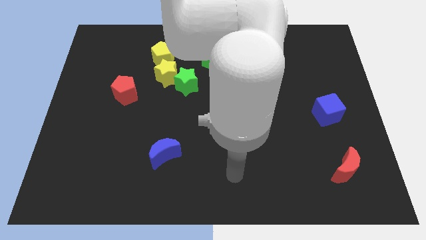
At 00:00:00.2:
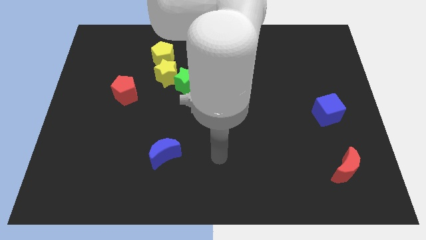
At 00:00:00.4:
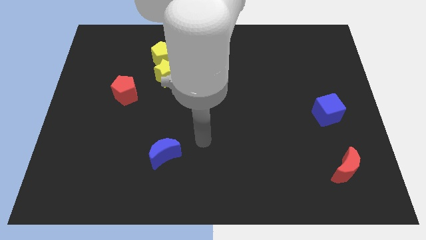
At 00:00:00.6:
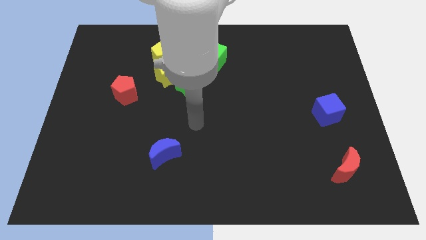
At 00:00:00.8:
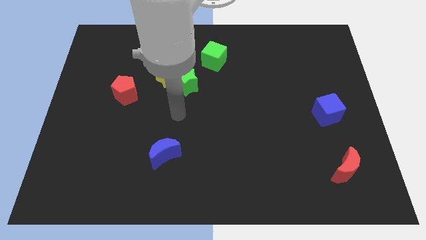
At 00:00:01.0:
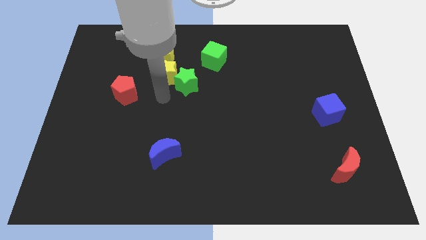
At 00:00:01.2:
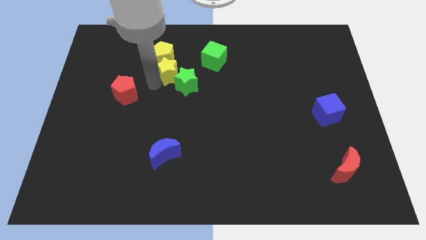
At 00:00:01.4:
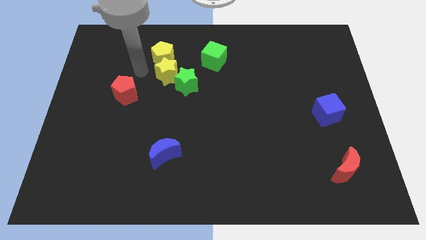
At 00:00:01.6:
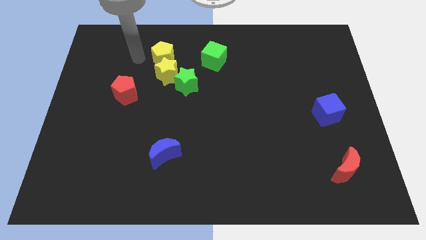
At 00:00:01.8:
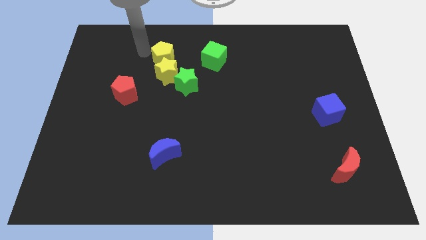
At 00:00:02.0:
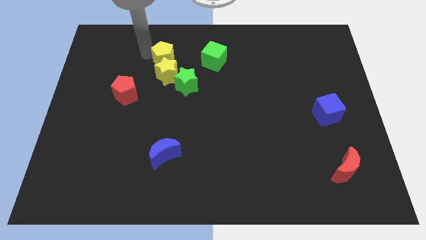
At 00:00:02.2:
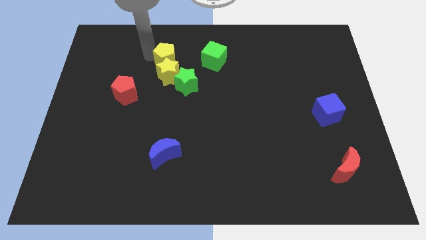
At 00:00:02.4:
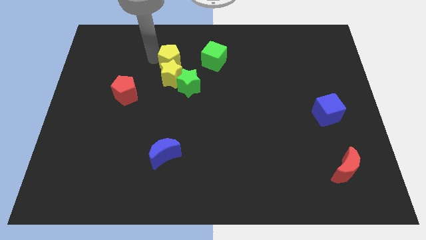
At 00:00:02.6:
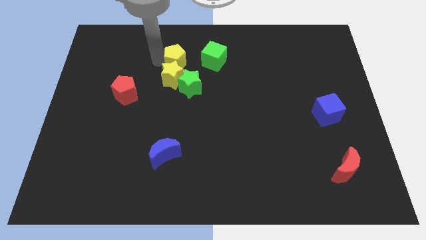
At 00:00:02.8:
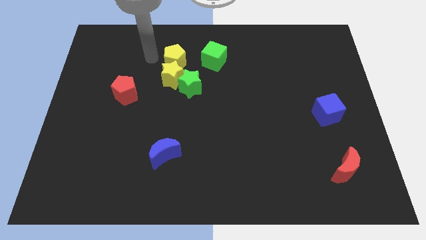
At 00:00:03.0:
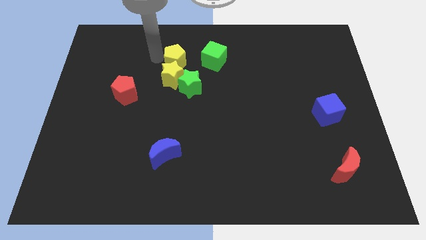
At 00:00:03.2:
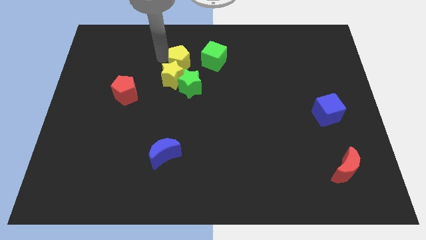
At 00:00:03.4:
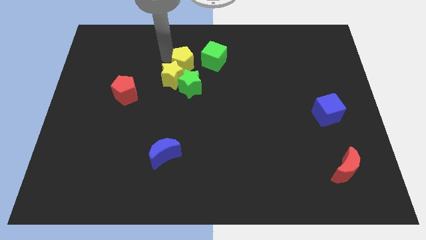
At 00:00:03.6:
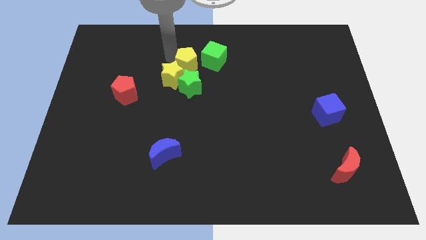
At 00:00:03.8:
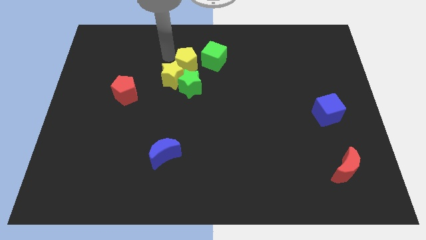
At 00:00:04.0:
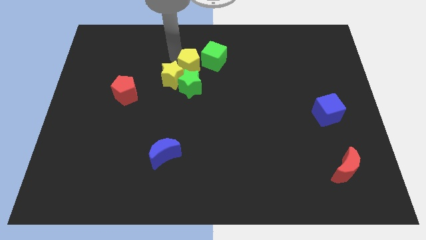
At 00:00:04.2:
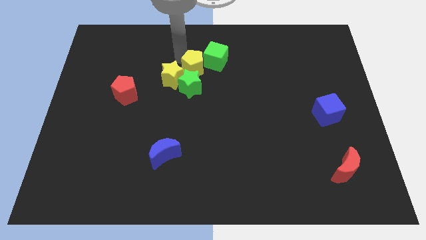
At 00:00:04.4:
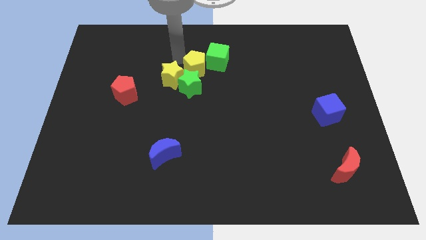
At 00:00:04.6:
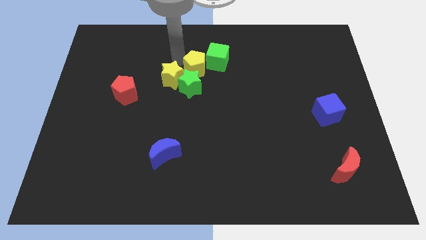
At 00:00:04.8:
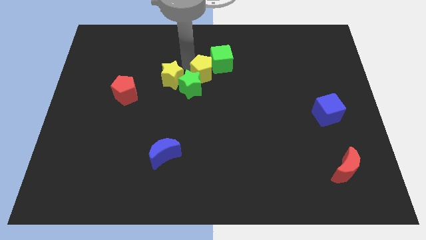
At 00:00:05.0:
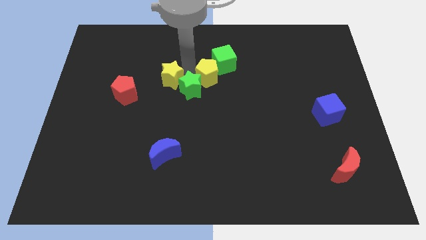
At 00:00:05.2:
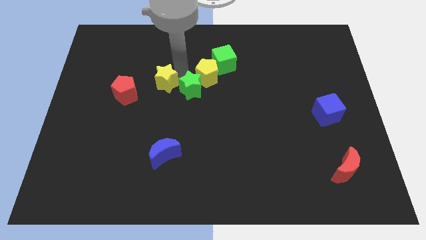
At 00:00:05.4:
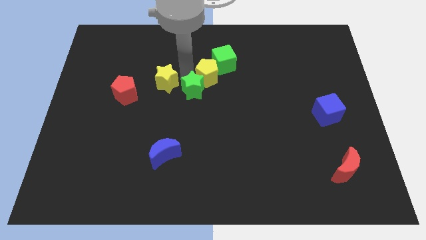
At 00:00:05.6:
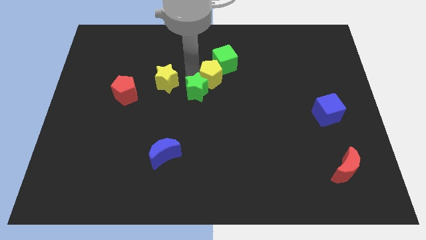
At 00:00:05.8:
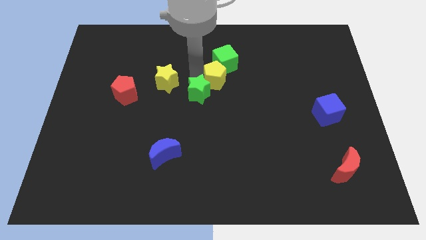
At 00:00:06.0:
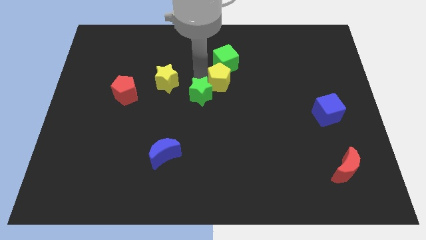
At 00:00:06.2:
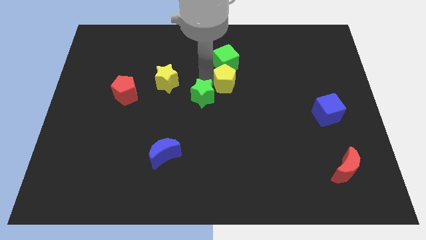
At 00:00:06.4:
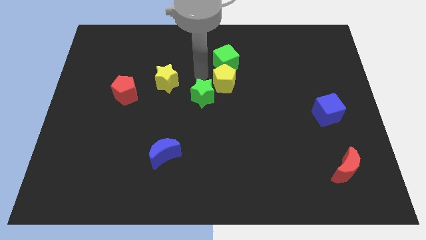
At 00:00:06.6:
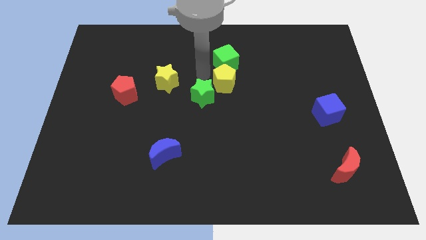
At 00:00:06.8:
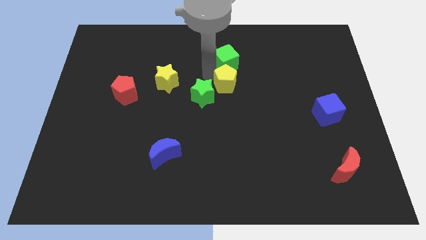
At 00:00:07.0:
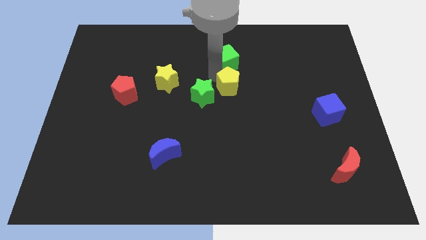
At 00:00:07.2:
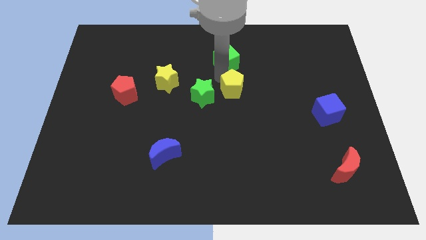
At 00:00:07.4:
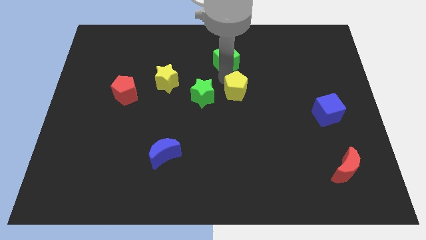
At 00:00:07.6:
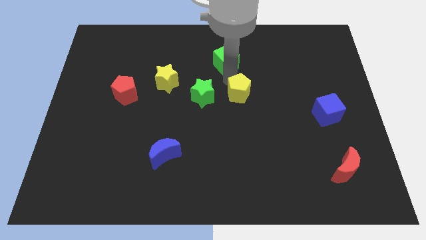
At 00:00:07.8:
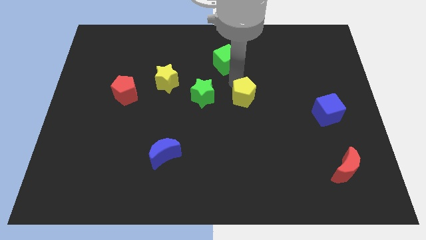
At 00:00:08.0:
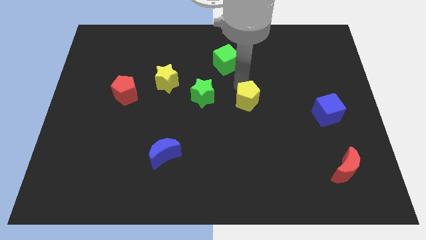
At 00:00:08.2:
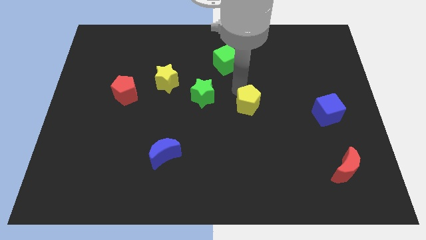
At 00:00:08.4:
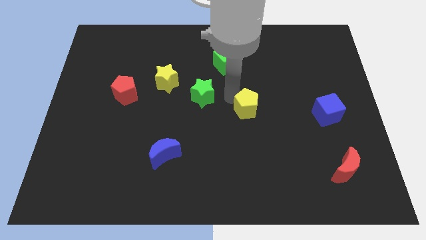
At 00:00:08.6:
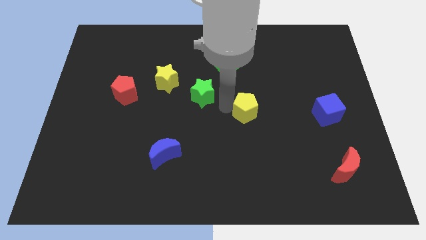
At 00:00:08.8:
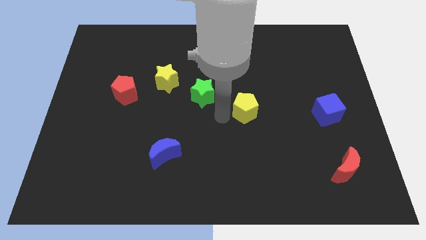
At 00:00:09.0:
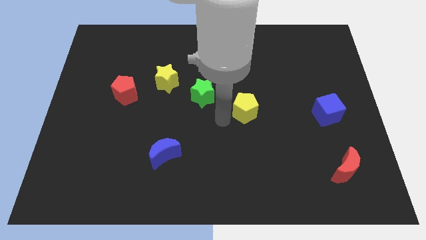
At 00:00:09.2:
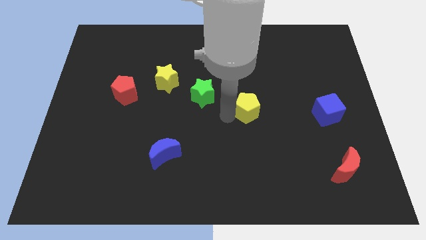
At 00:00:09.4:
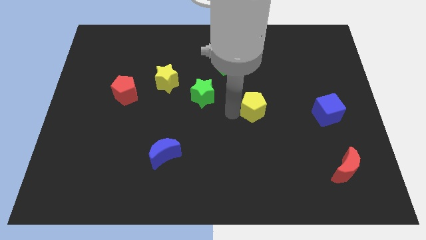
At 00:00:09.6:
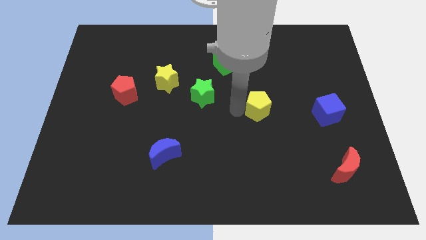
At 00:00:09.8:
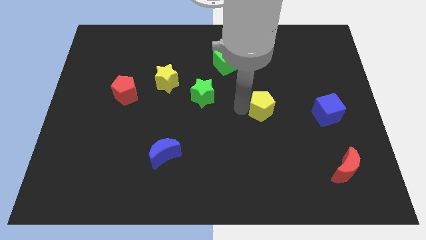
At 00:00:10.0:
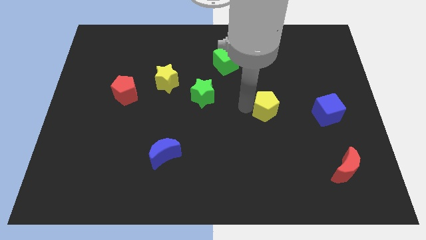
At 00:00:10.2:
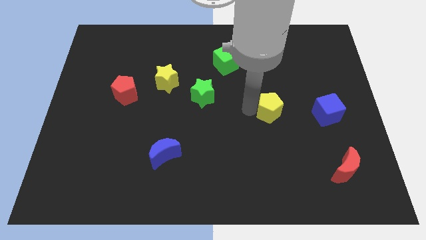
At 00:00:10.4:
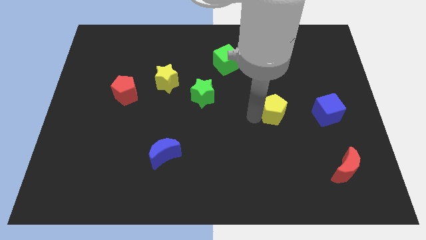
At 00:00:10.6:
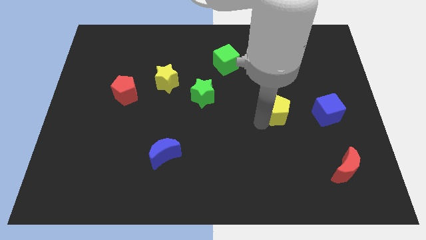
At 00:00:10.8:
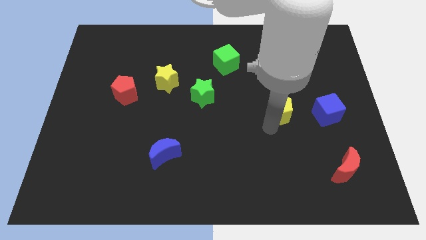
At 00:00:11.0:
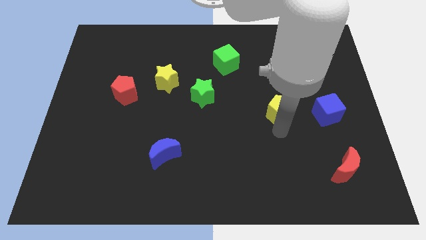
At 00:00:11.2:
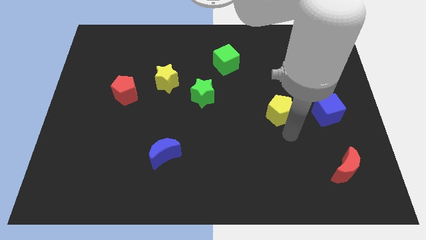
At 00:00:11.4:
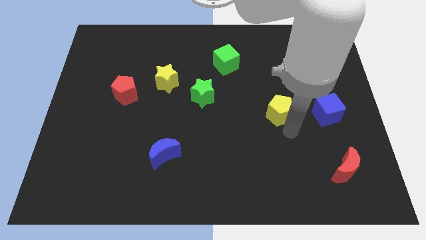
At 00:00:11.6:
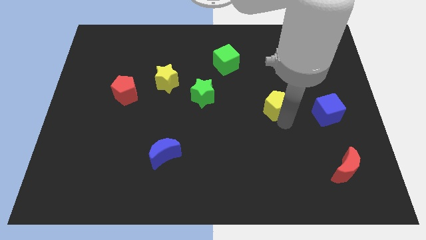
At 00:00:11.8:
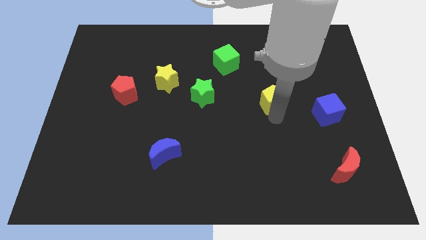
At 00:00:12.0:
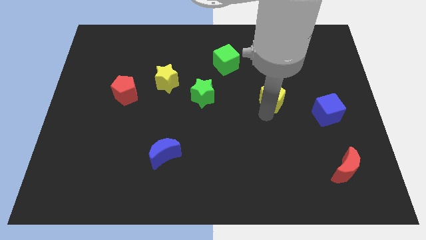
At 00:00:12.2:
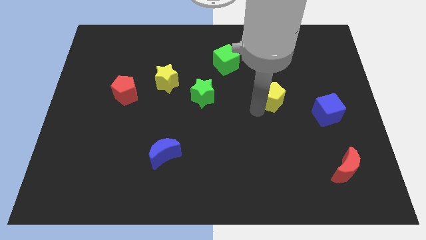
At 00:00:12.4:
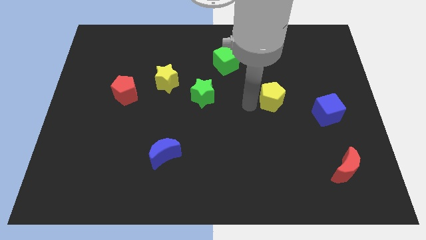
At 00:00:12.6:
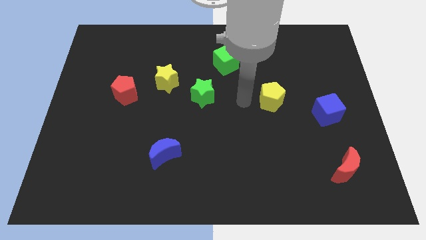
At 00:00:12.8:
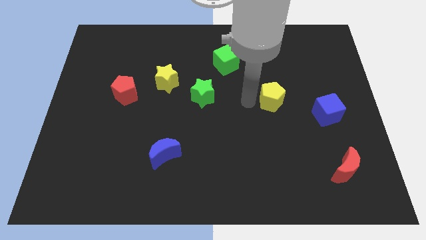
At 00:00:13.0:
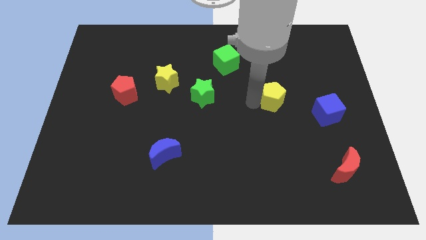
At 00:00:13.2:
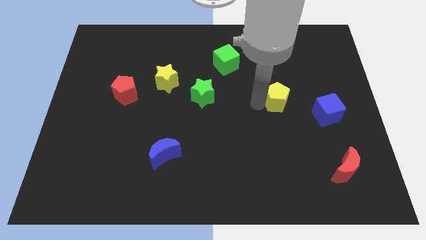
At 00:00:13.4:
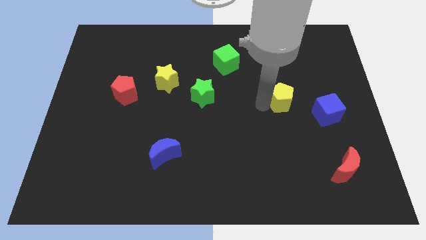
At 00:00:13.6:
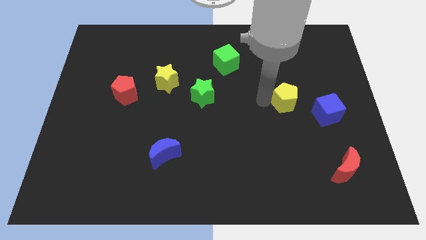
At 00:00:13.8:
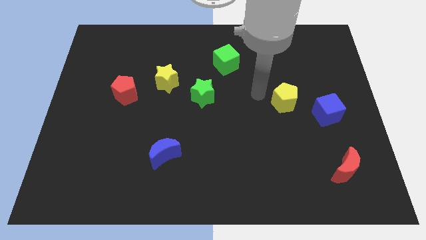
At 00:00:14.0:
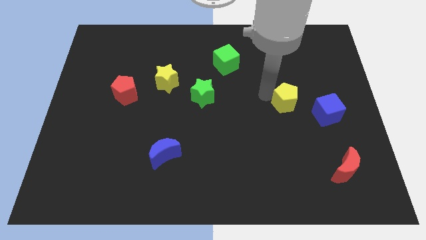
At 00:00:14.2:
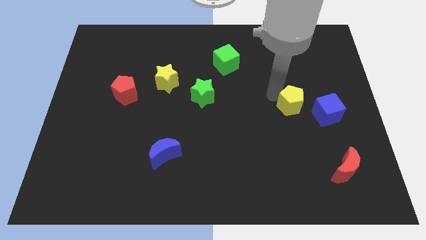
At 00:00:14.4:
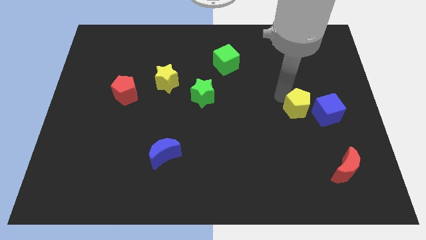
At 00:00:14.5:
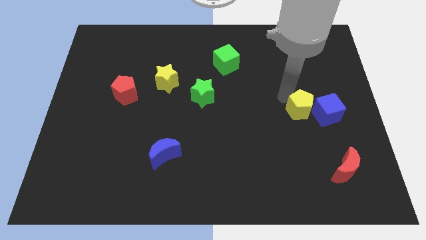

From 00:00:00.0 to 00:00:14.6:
put the yellow pentagon next to the blue cube
